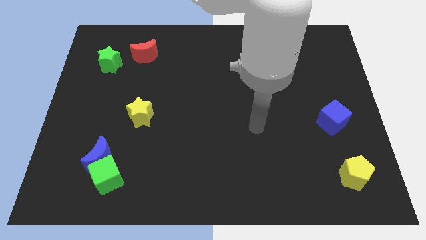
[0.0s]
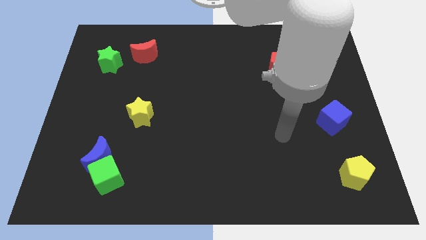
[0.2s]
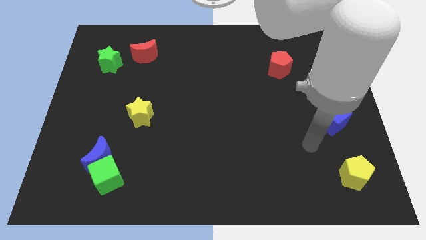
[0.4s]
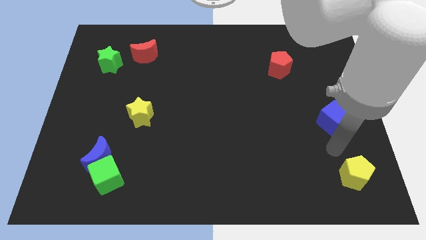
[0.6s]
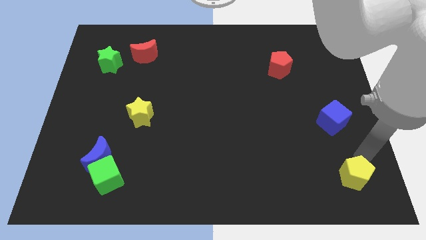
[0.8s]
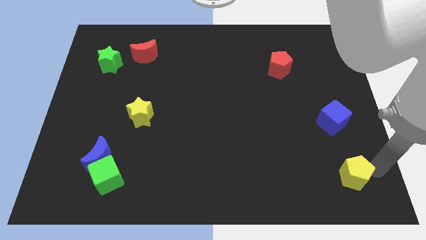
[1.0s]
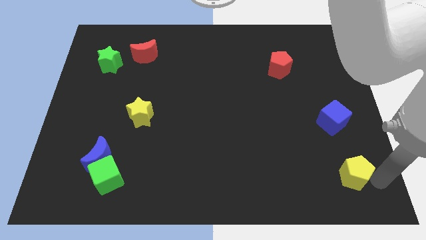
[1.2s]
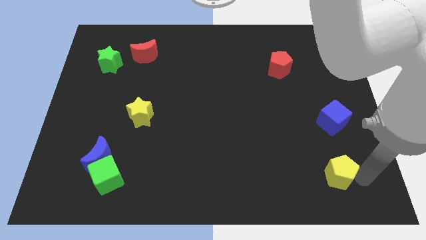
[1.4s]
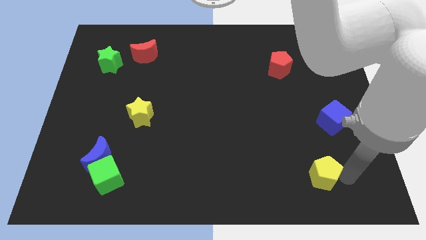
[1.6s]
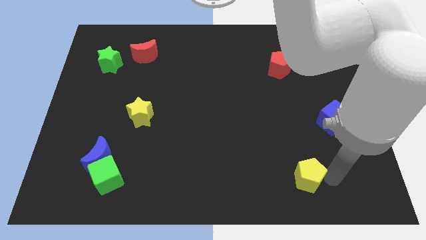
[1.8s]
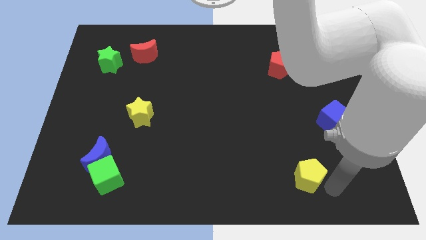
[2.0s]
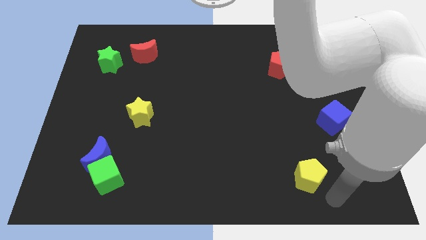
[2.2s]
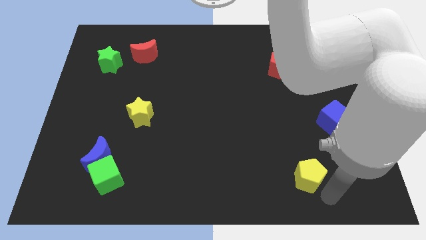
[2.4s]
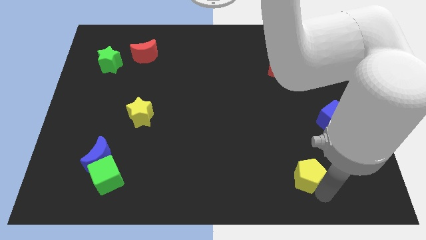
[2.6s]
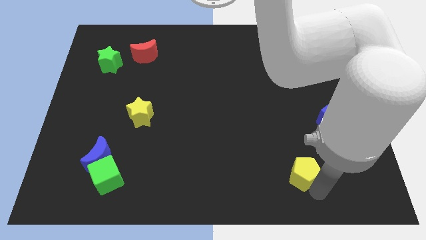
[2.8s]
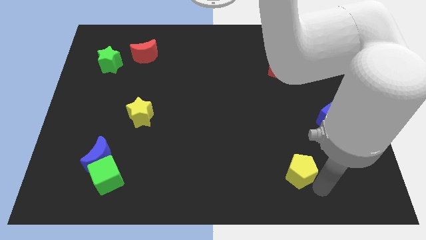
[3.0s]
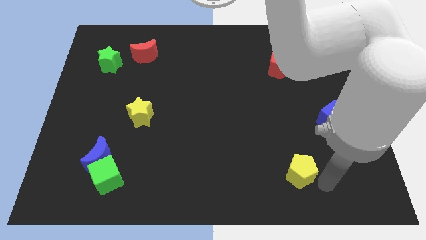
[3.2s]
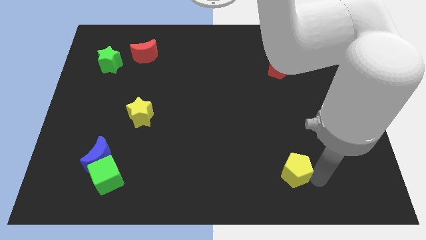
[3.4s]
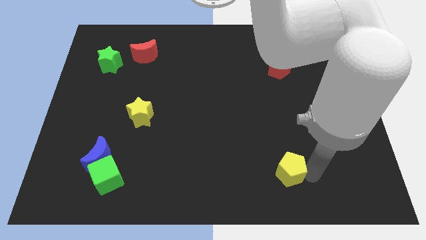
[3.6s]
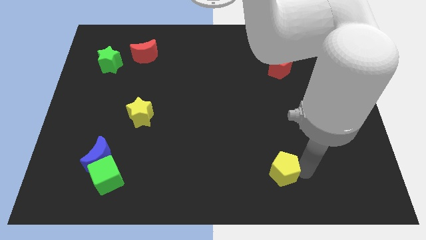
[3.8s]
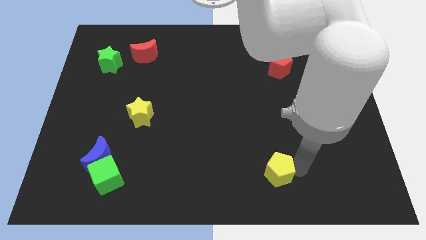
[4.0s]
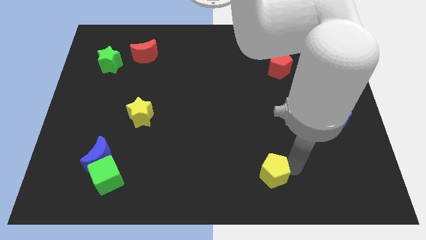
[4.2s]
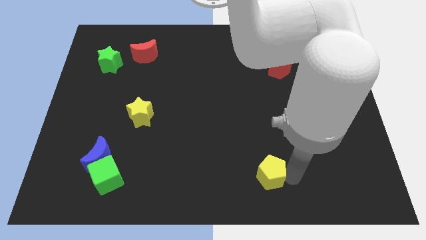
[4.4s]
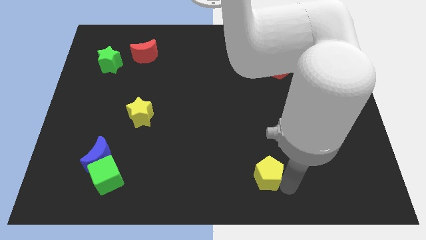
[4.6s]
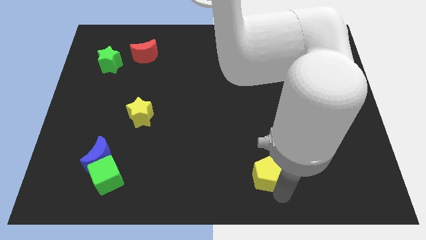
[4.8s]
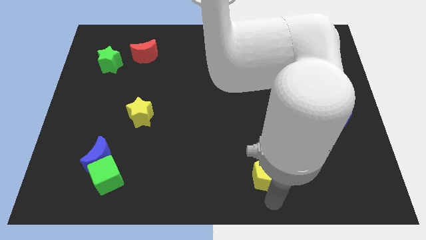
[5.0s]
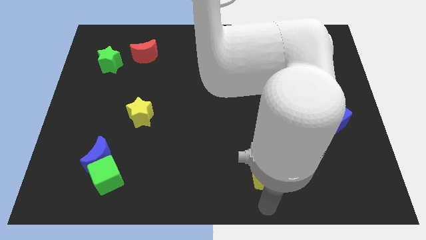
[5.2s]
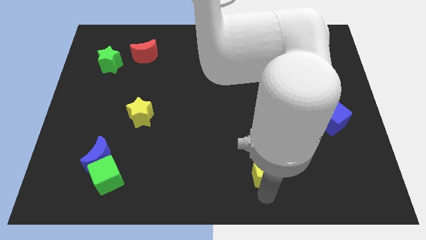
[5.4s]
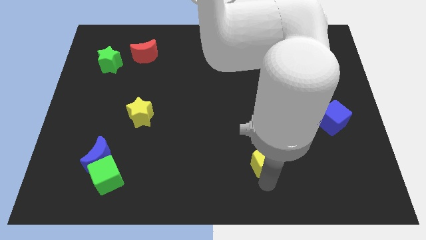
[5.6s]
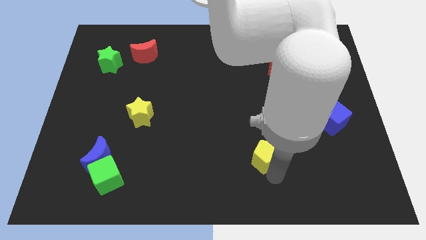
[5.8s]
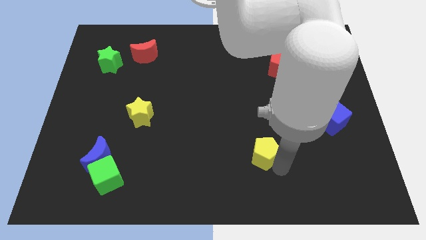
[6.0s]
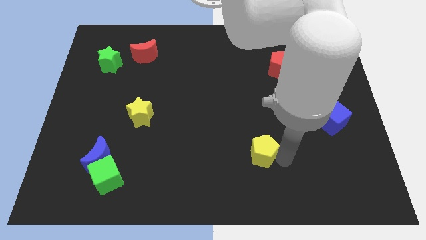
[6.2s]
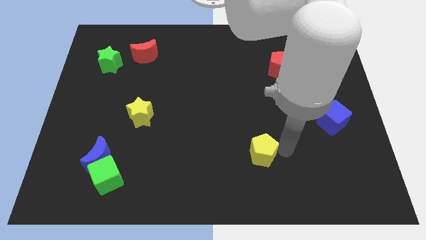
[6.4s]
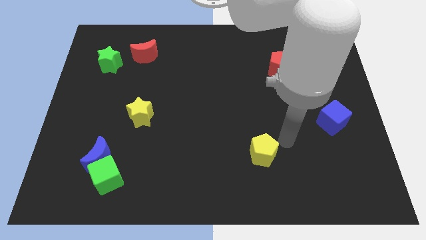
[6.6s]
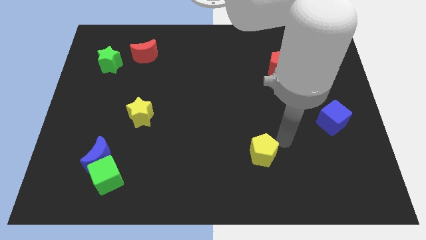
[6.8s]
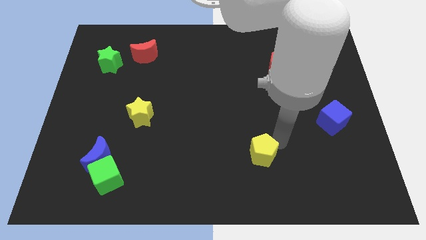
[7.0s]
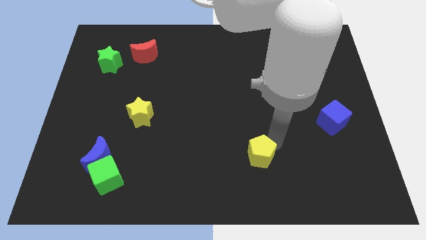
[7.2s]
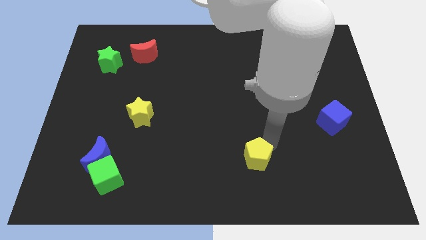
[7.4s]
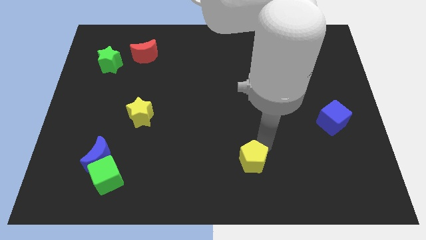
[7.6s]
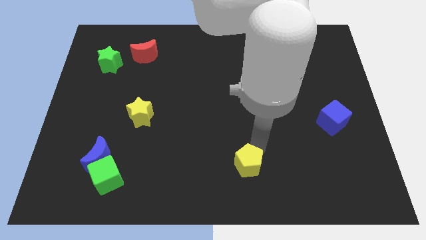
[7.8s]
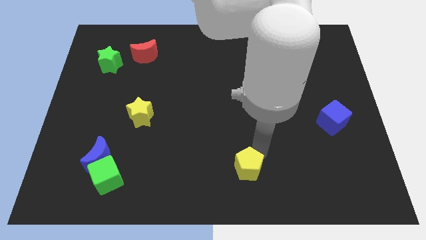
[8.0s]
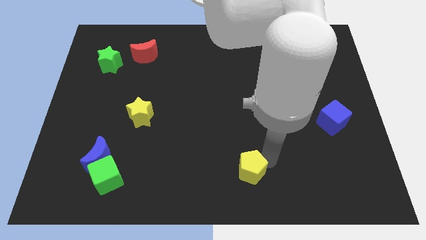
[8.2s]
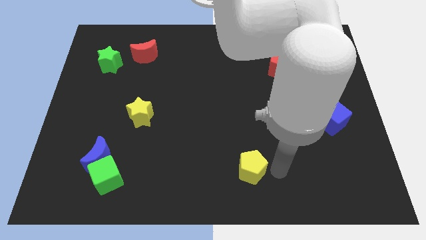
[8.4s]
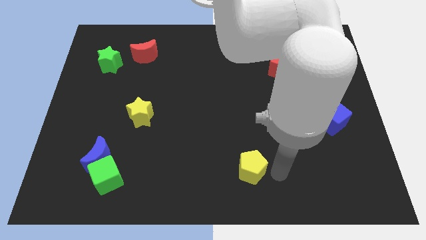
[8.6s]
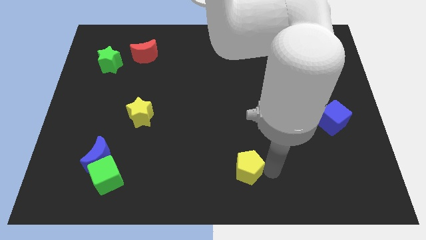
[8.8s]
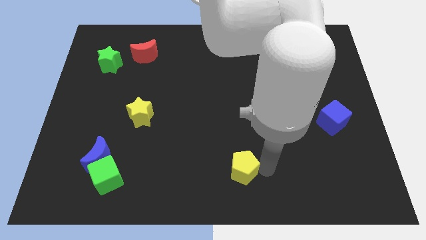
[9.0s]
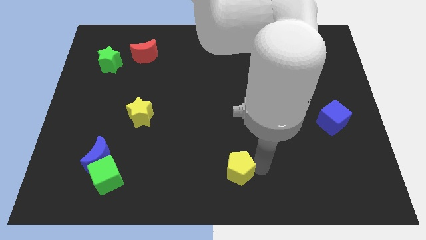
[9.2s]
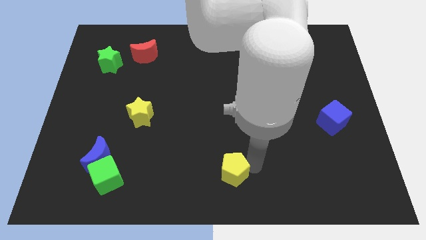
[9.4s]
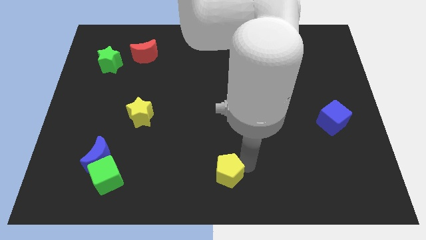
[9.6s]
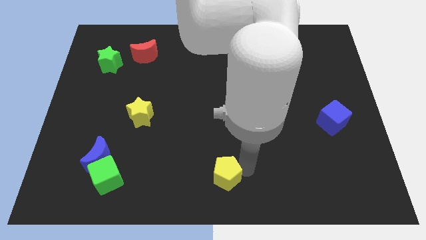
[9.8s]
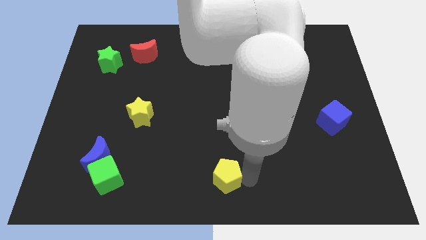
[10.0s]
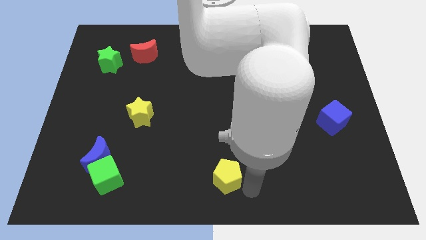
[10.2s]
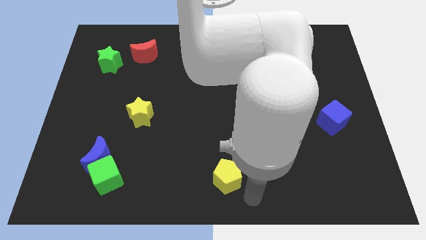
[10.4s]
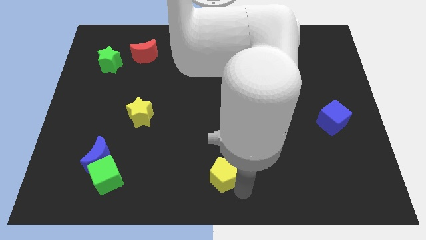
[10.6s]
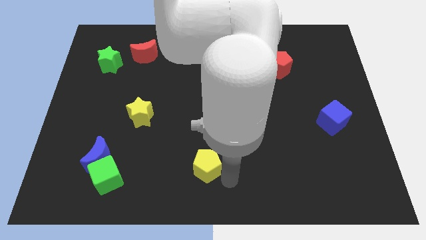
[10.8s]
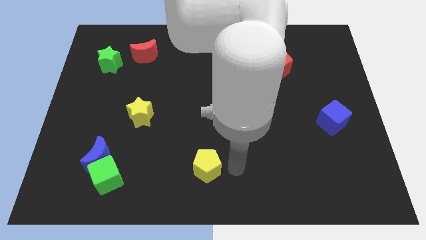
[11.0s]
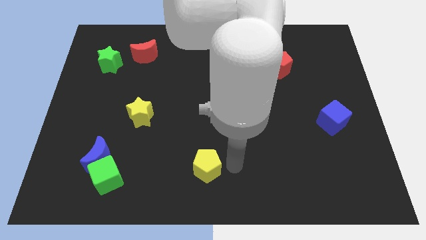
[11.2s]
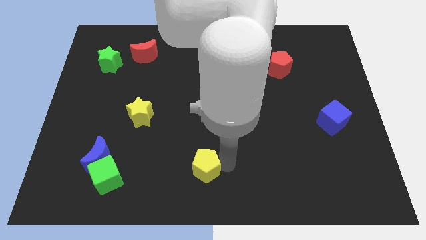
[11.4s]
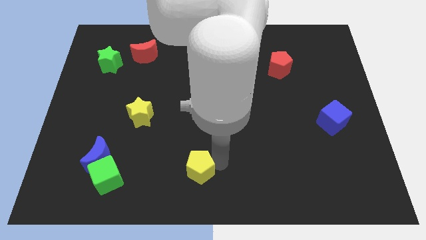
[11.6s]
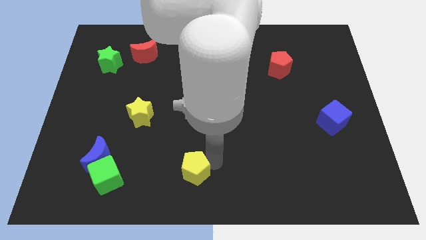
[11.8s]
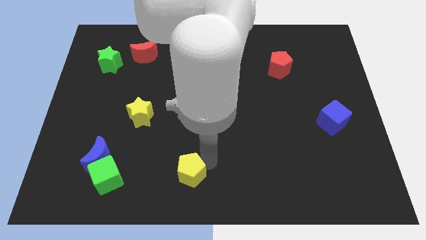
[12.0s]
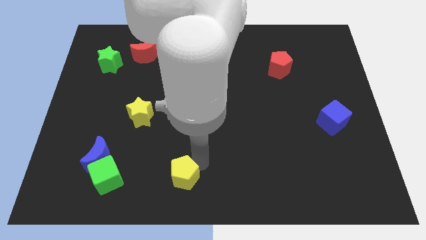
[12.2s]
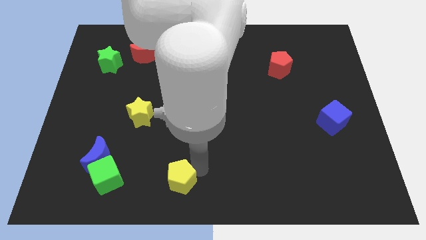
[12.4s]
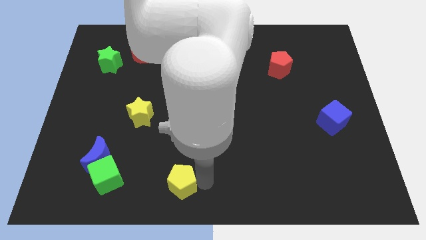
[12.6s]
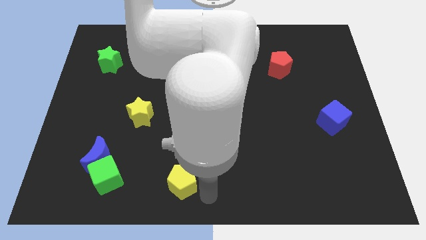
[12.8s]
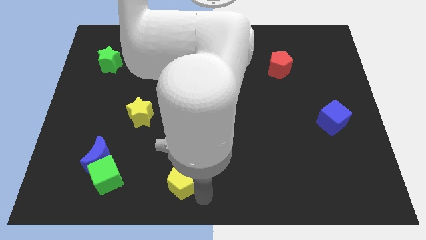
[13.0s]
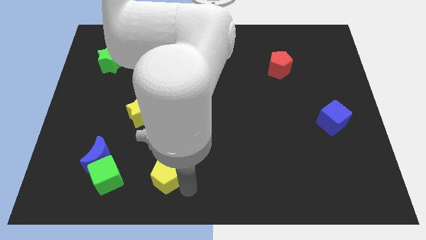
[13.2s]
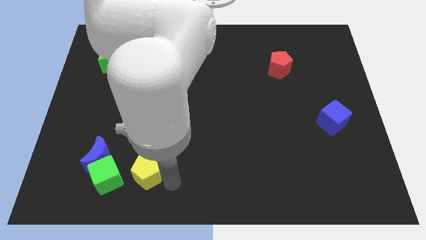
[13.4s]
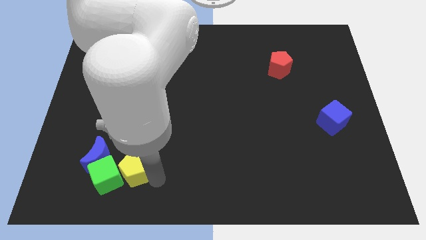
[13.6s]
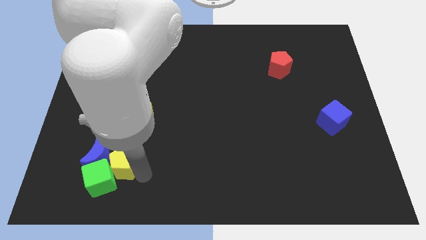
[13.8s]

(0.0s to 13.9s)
move the yellow pentagon next to the blue moon
